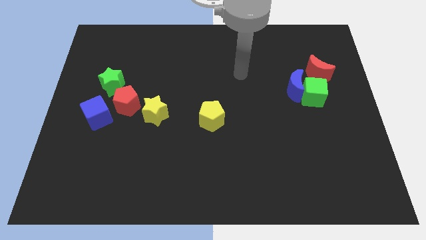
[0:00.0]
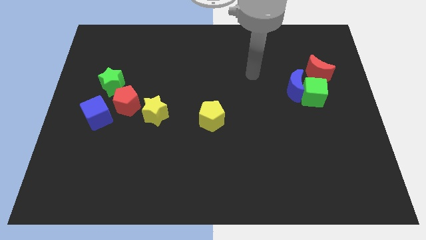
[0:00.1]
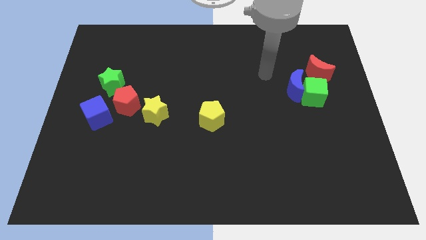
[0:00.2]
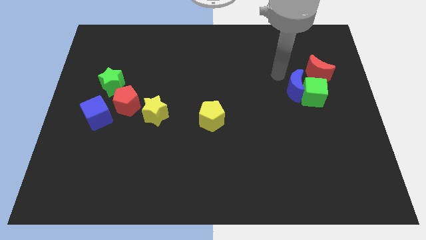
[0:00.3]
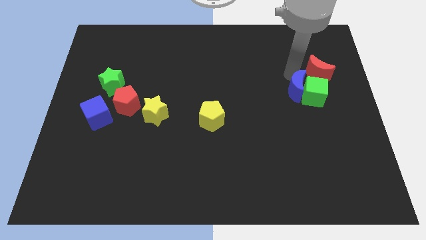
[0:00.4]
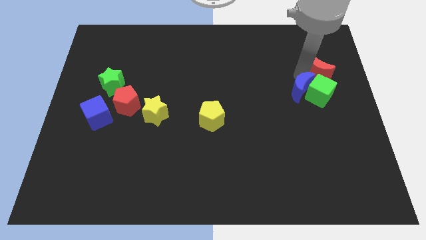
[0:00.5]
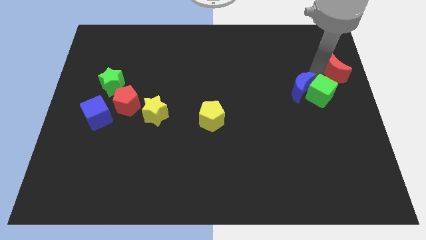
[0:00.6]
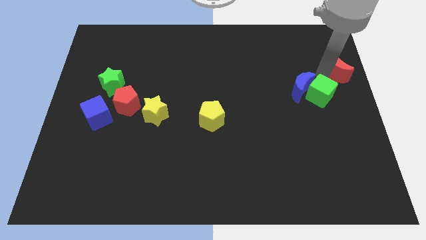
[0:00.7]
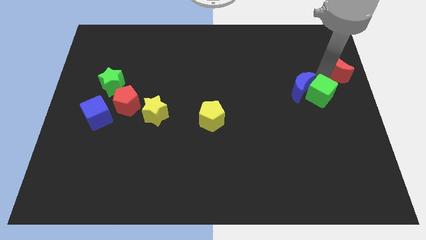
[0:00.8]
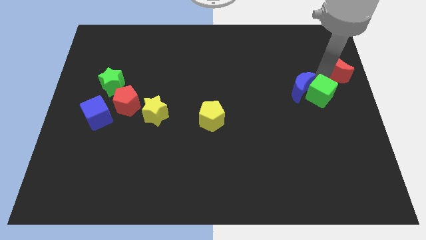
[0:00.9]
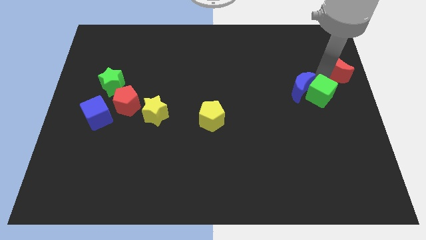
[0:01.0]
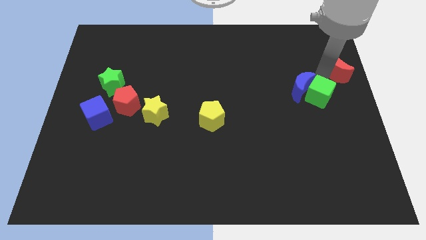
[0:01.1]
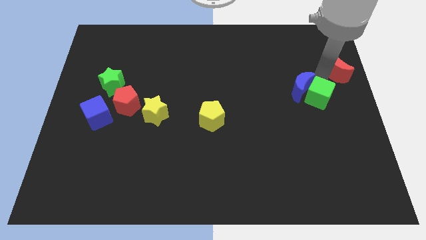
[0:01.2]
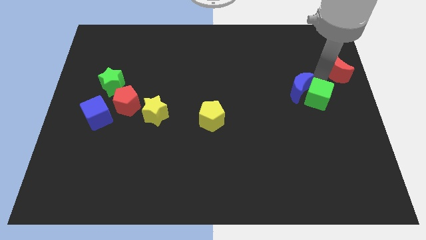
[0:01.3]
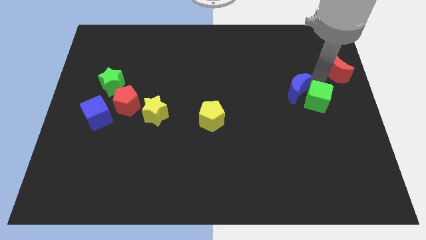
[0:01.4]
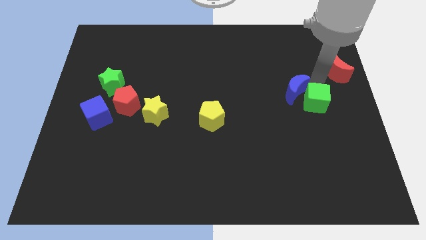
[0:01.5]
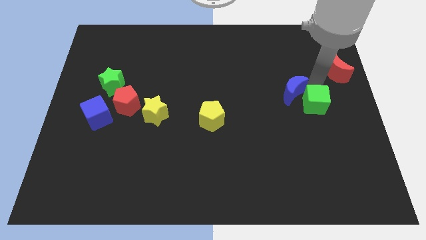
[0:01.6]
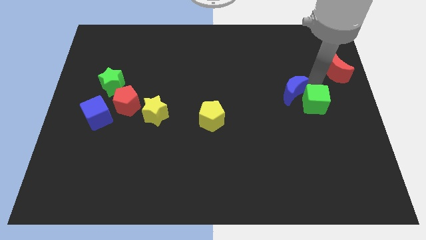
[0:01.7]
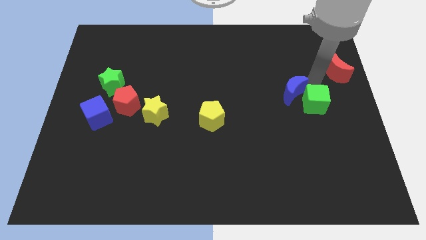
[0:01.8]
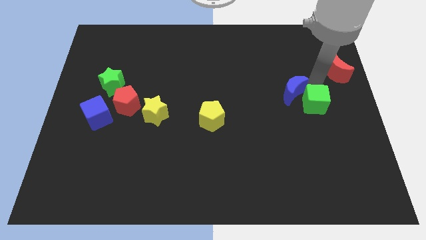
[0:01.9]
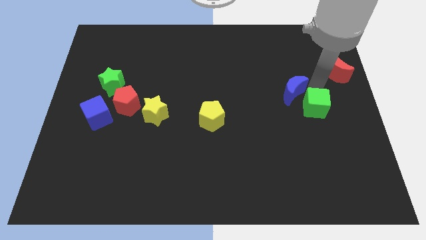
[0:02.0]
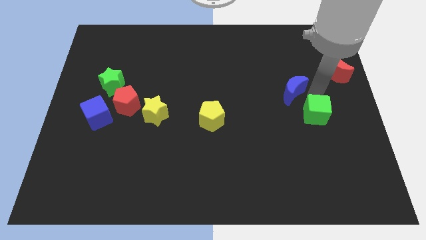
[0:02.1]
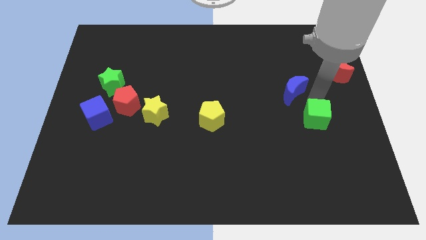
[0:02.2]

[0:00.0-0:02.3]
move the green cube away from the blue moon and red moon

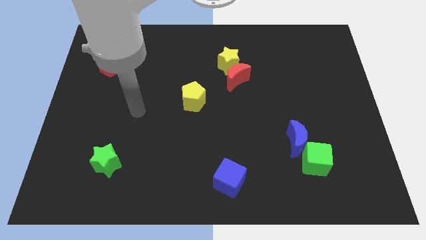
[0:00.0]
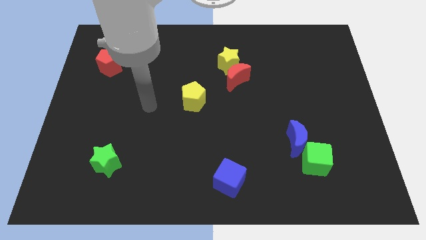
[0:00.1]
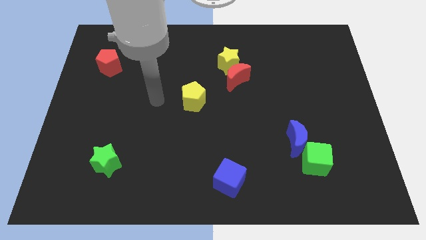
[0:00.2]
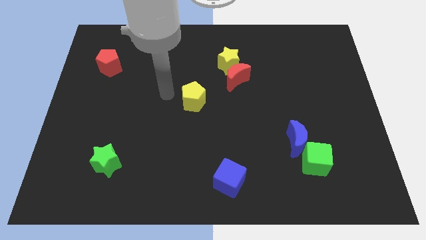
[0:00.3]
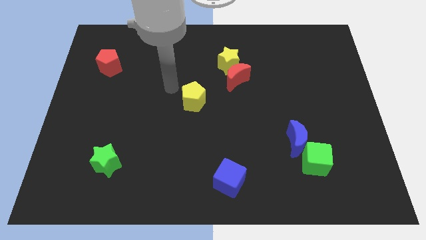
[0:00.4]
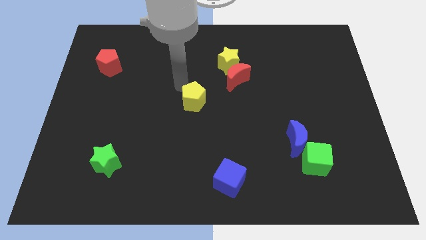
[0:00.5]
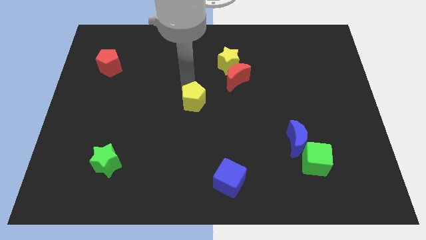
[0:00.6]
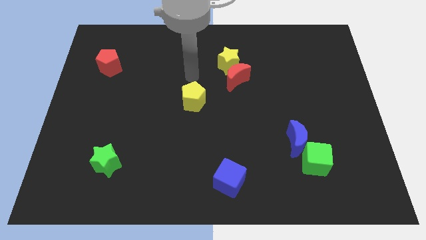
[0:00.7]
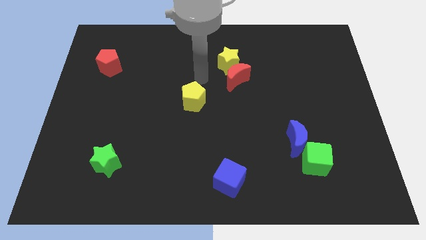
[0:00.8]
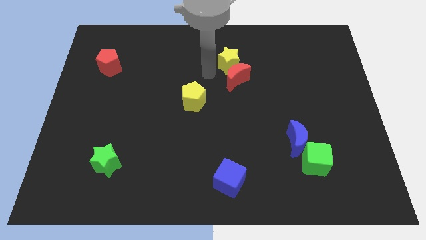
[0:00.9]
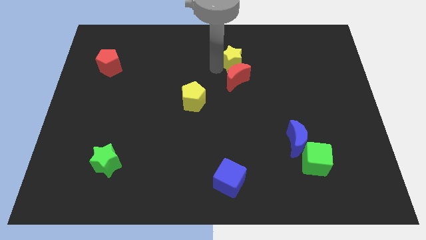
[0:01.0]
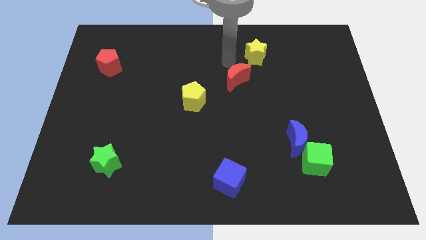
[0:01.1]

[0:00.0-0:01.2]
pull the red moon apart from the yellow star

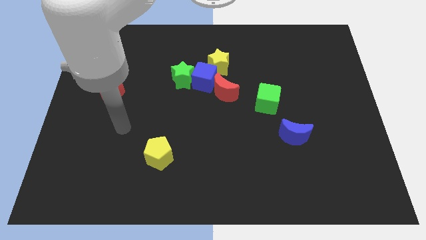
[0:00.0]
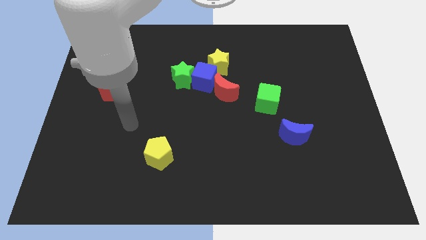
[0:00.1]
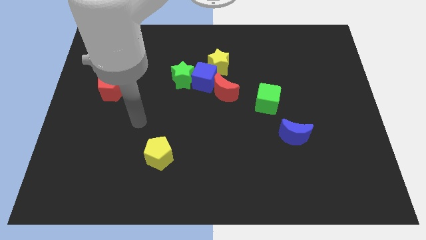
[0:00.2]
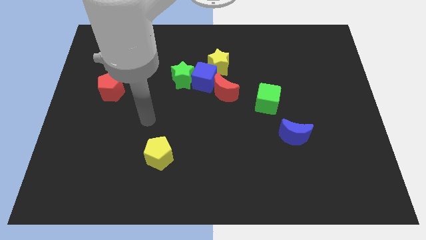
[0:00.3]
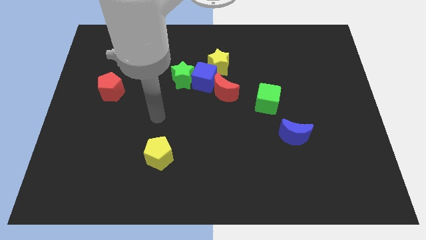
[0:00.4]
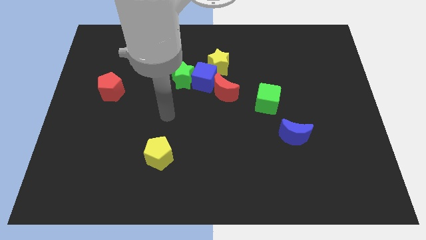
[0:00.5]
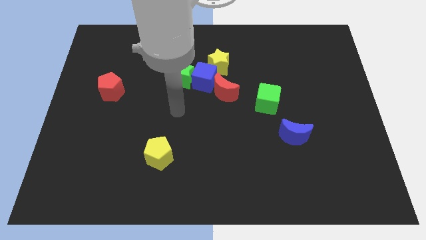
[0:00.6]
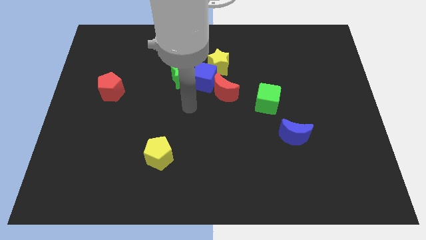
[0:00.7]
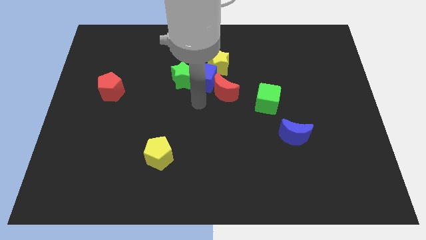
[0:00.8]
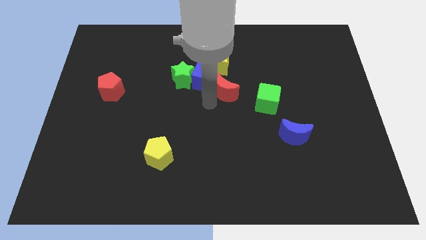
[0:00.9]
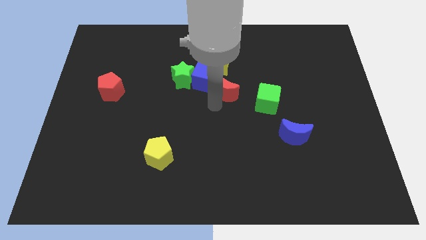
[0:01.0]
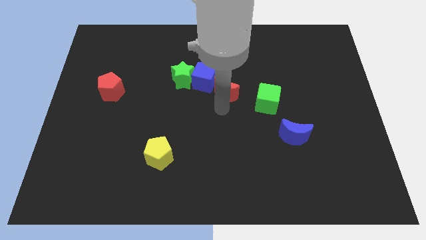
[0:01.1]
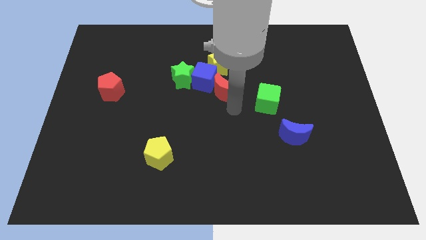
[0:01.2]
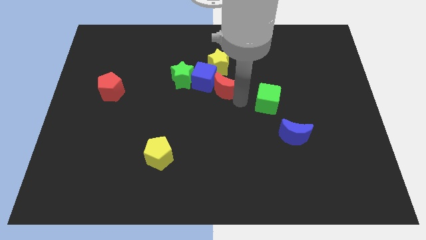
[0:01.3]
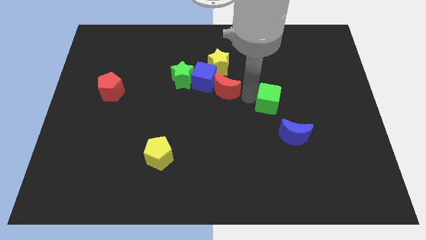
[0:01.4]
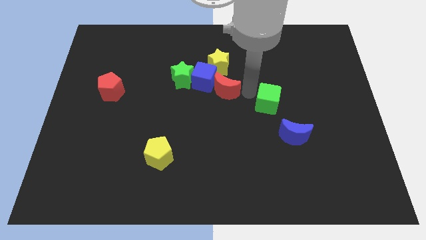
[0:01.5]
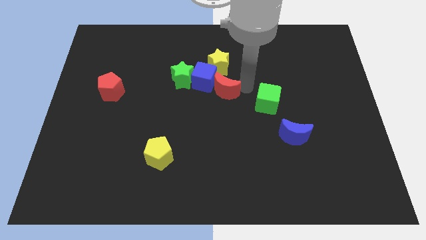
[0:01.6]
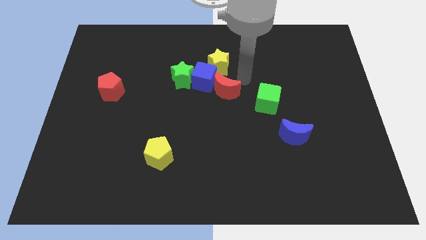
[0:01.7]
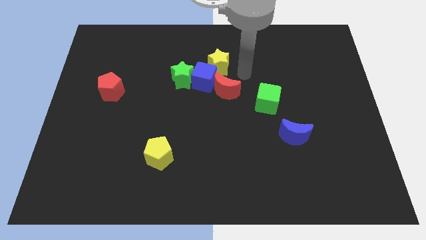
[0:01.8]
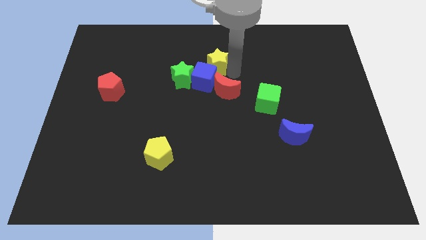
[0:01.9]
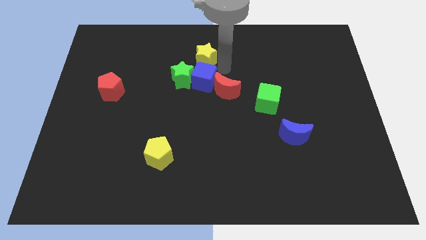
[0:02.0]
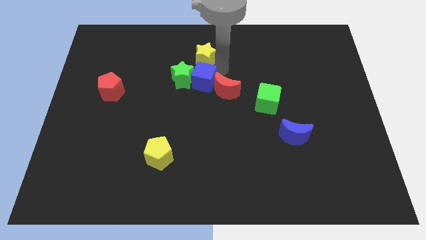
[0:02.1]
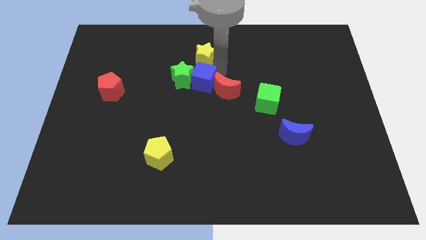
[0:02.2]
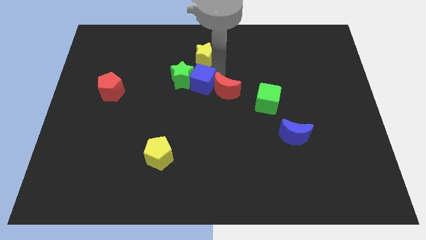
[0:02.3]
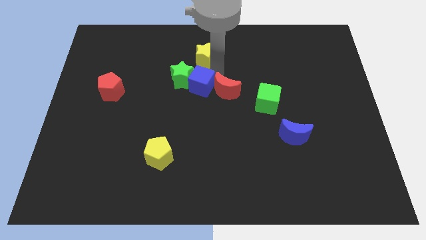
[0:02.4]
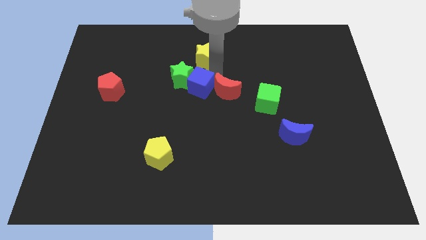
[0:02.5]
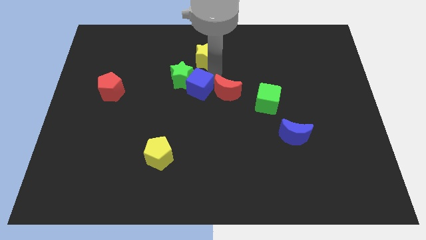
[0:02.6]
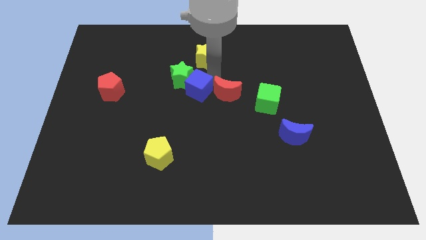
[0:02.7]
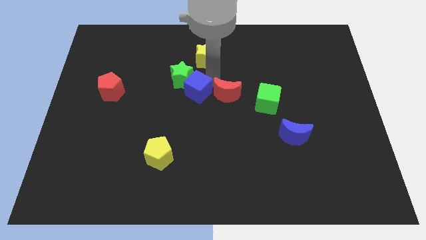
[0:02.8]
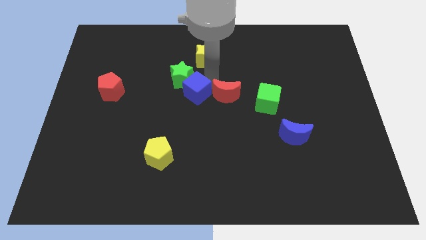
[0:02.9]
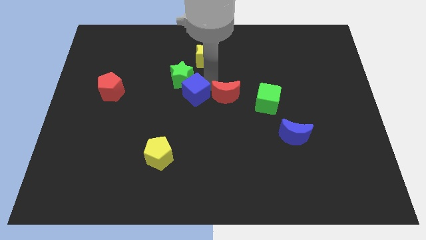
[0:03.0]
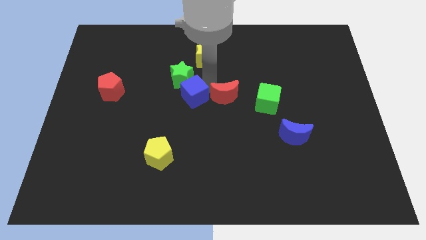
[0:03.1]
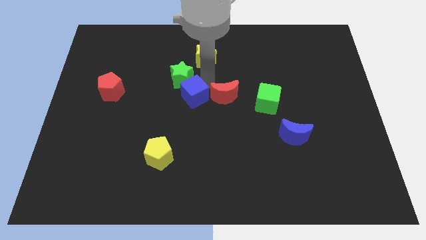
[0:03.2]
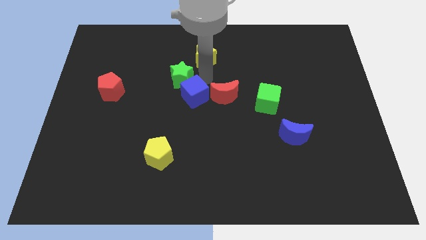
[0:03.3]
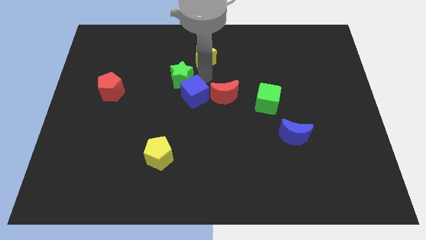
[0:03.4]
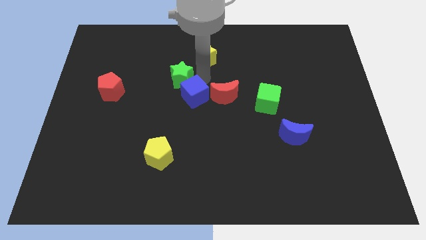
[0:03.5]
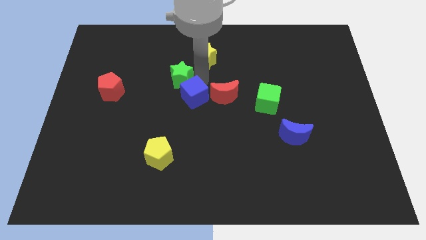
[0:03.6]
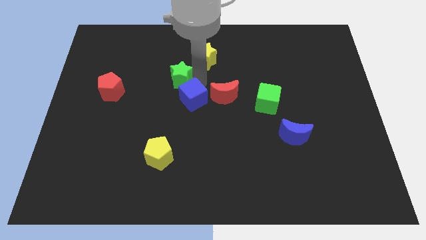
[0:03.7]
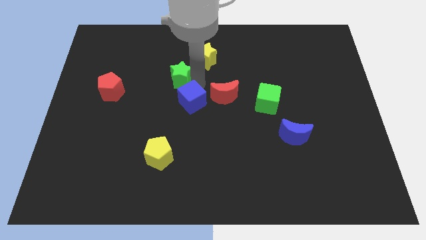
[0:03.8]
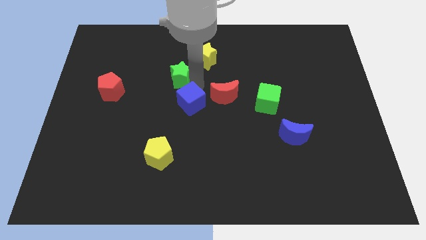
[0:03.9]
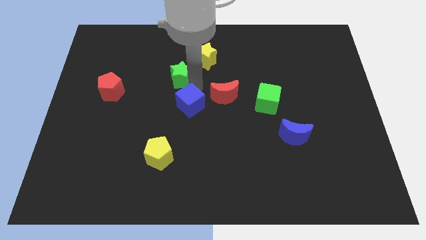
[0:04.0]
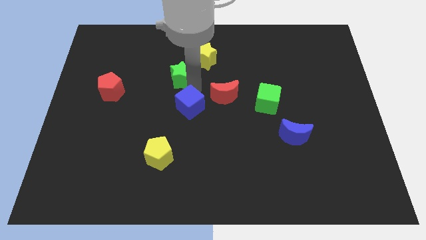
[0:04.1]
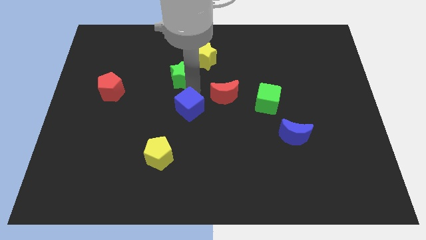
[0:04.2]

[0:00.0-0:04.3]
separate the blue cube from the clump

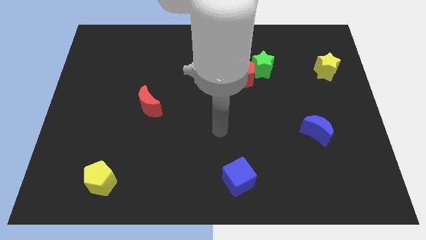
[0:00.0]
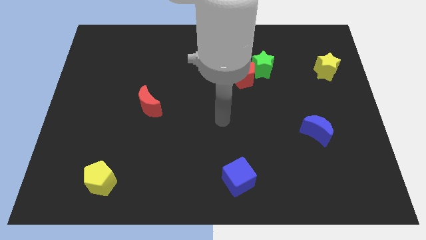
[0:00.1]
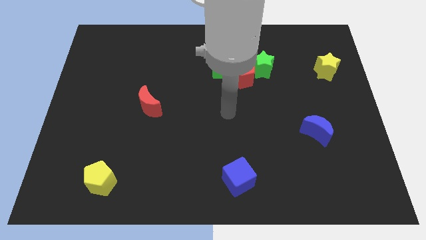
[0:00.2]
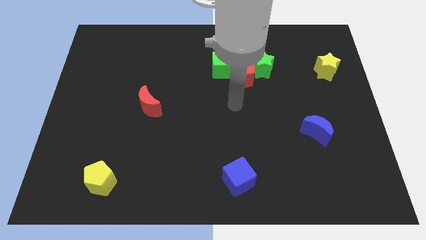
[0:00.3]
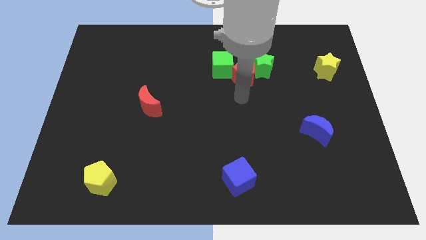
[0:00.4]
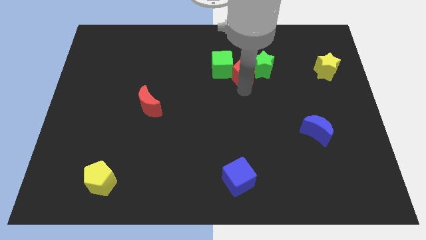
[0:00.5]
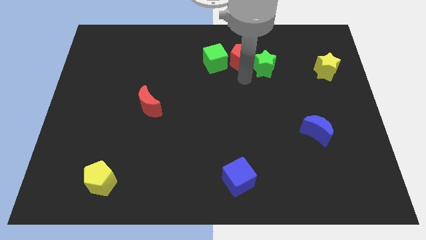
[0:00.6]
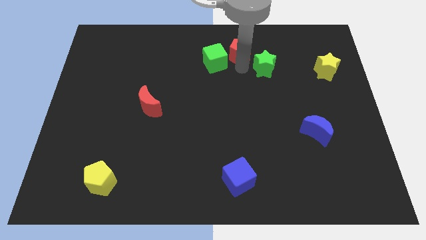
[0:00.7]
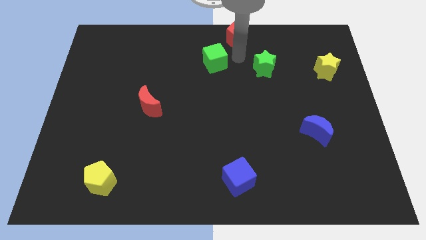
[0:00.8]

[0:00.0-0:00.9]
pull the green cube apart from the red pentagon

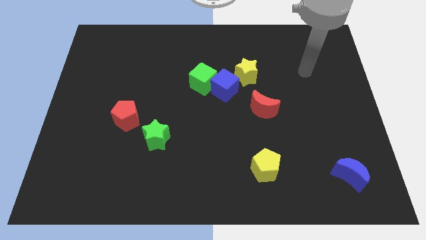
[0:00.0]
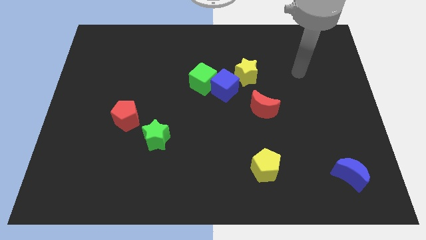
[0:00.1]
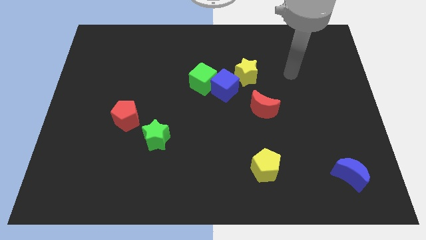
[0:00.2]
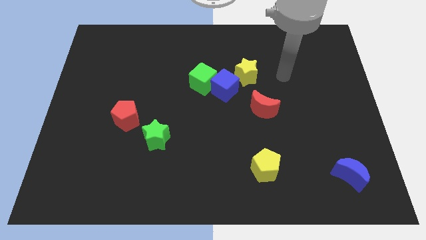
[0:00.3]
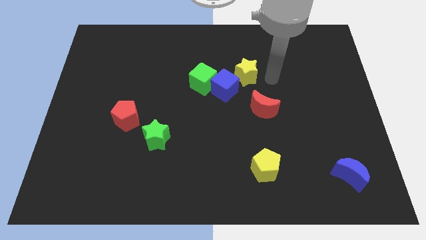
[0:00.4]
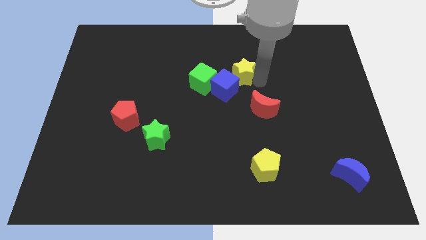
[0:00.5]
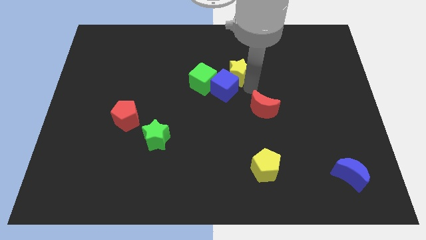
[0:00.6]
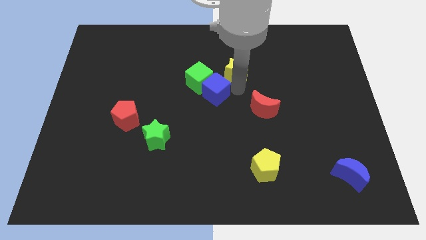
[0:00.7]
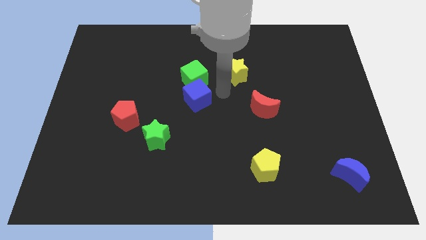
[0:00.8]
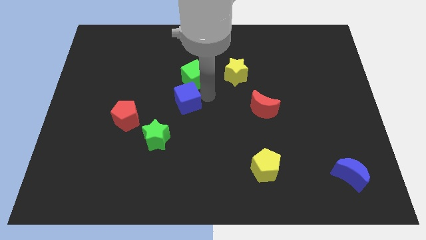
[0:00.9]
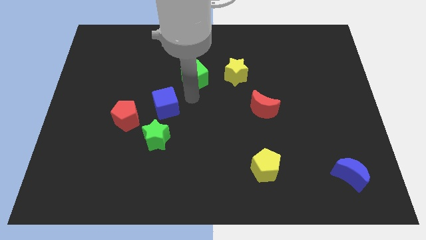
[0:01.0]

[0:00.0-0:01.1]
pull the green cube apart from the blue cube
